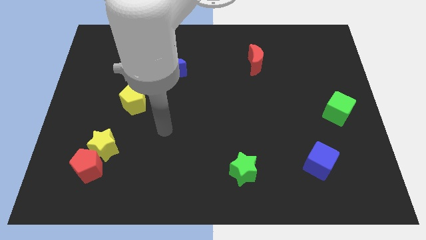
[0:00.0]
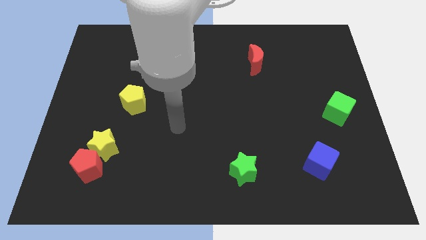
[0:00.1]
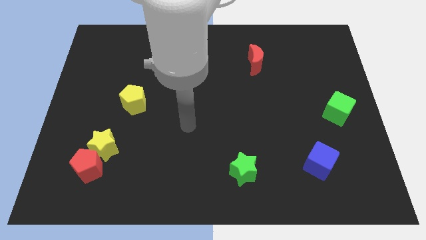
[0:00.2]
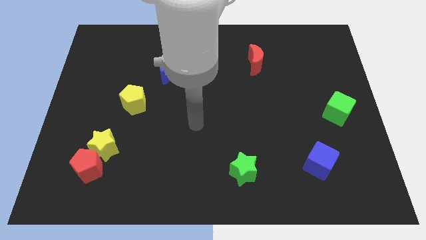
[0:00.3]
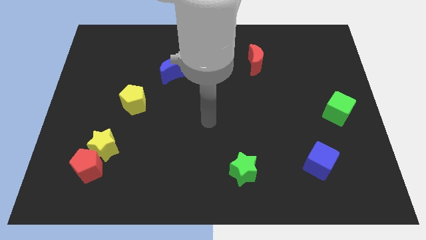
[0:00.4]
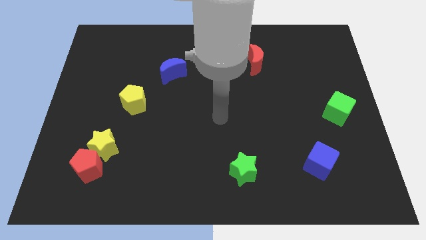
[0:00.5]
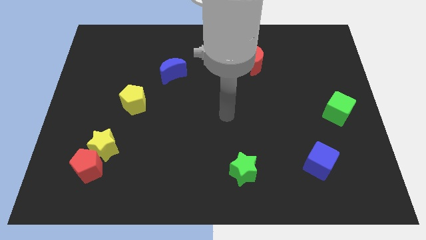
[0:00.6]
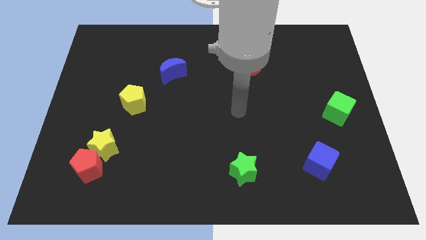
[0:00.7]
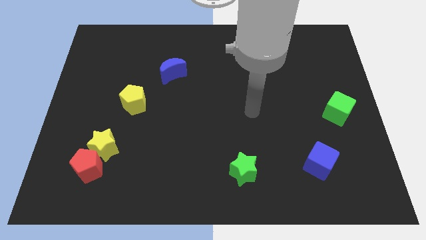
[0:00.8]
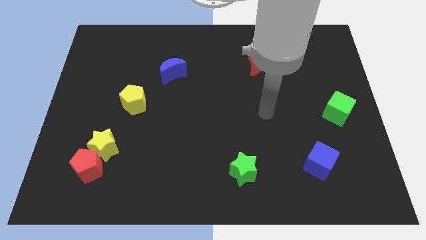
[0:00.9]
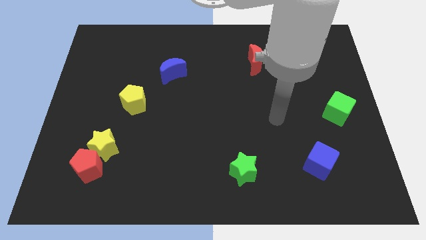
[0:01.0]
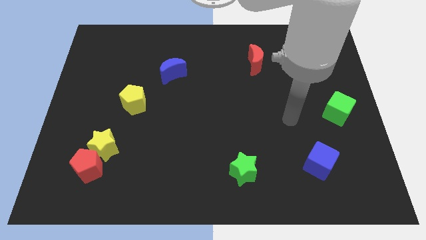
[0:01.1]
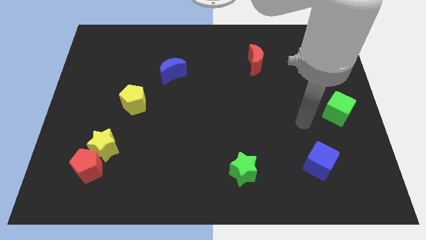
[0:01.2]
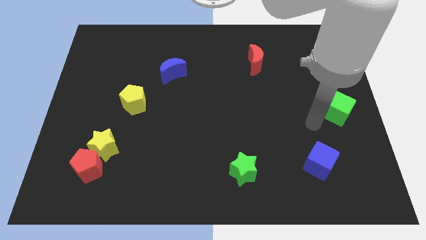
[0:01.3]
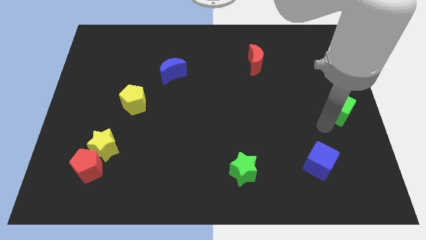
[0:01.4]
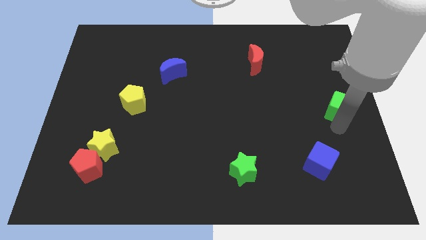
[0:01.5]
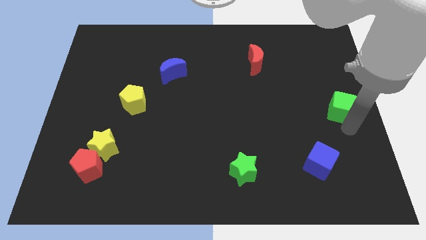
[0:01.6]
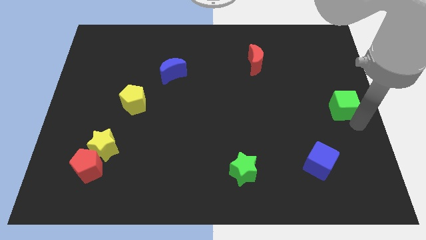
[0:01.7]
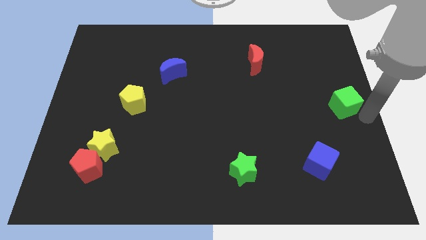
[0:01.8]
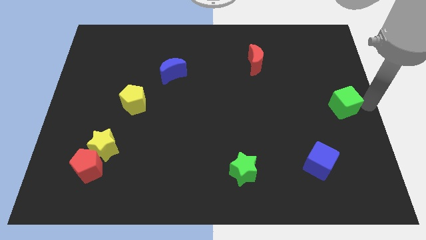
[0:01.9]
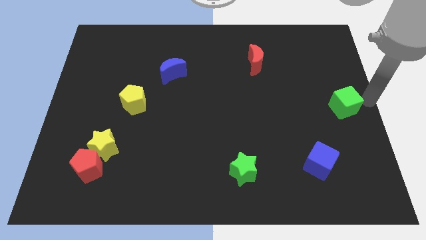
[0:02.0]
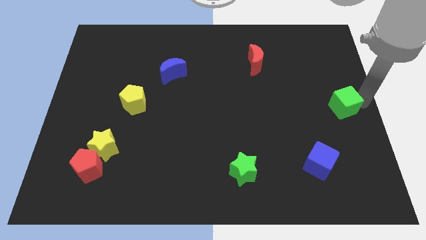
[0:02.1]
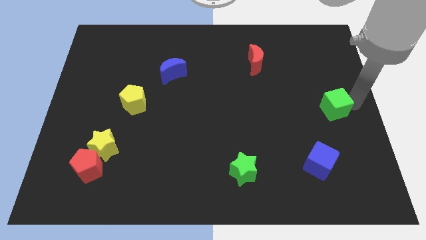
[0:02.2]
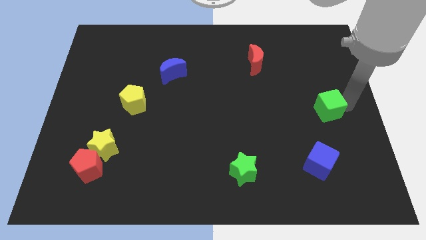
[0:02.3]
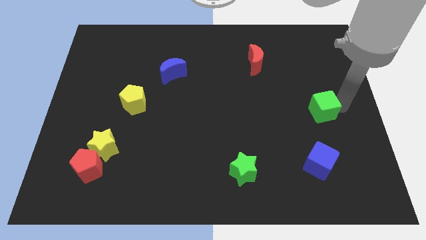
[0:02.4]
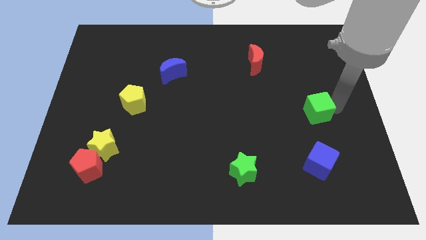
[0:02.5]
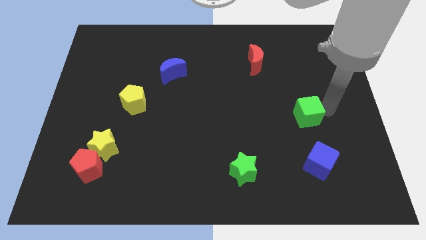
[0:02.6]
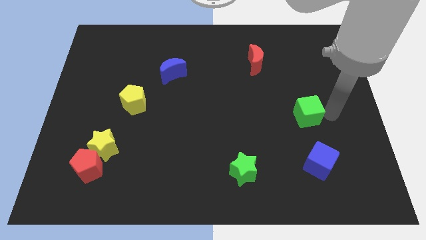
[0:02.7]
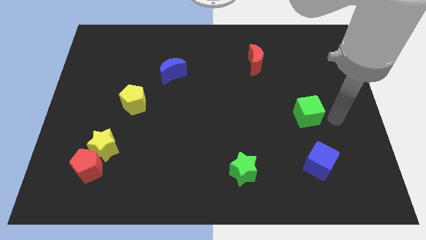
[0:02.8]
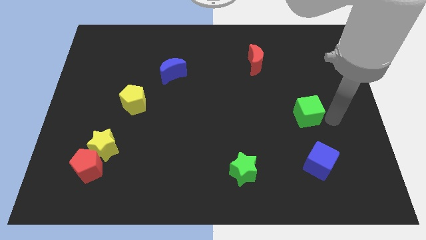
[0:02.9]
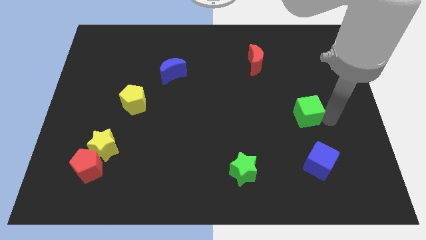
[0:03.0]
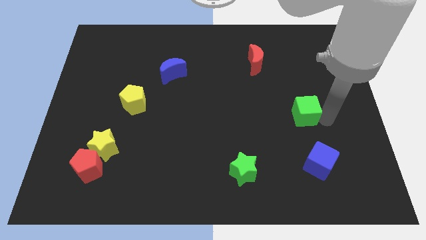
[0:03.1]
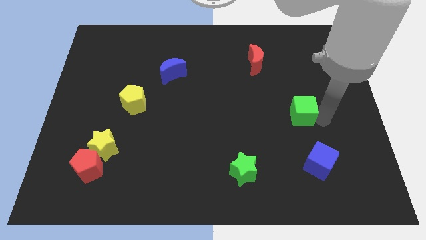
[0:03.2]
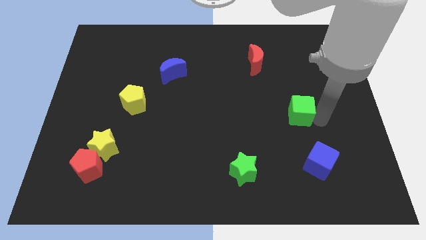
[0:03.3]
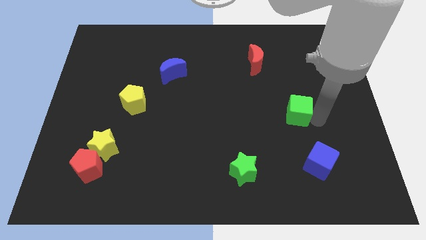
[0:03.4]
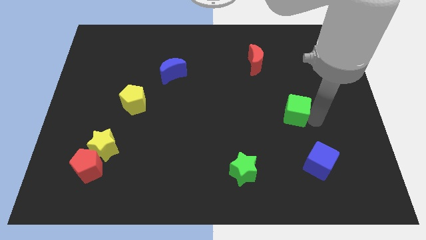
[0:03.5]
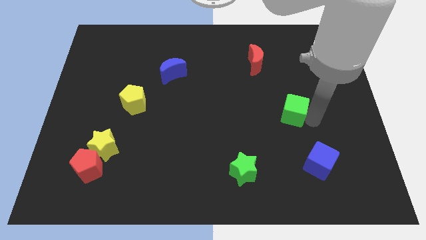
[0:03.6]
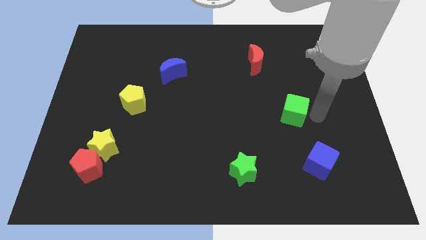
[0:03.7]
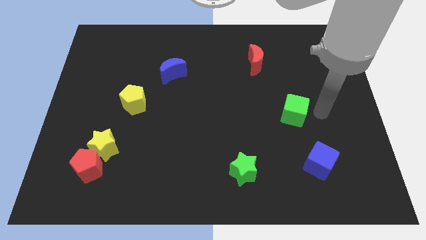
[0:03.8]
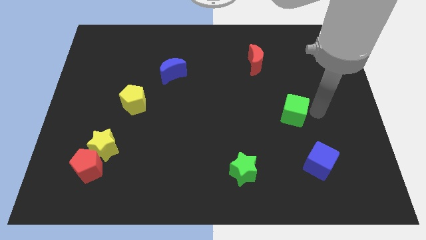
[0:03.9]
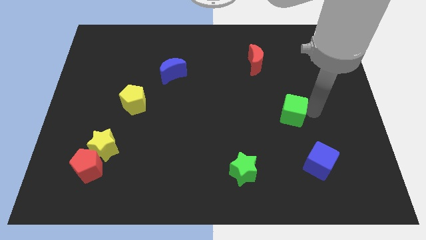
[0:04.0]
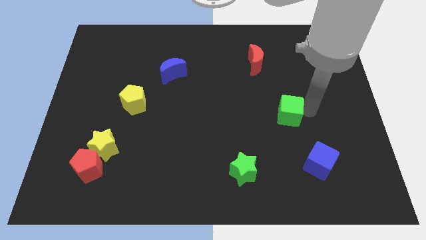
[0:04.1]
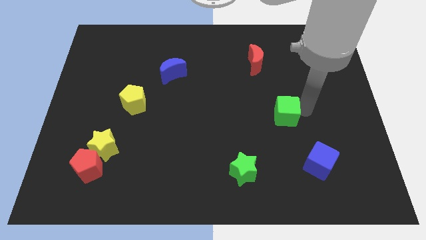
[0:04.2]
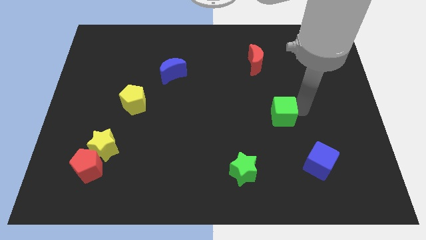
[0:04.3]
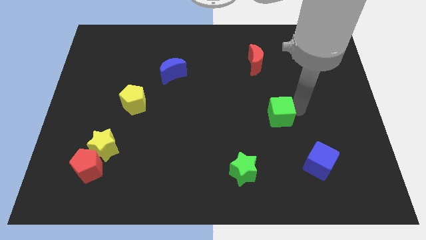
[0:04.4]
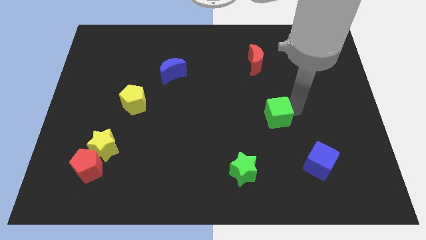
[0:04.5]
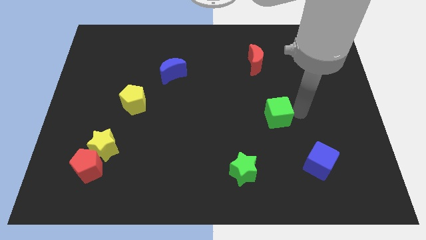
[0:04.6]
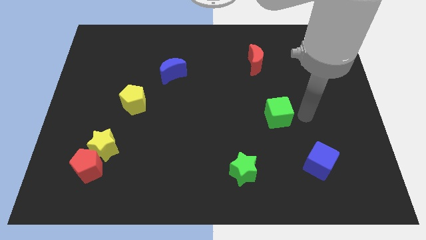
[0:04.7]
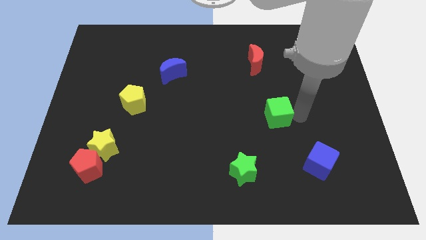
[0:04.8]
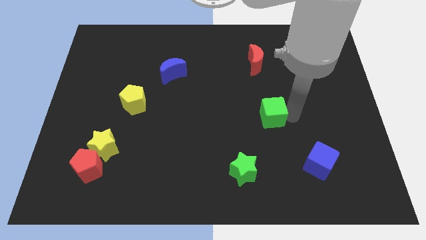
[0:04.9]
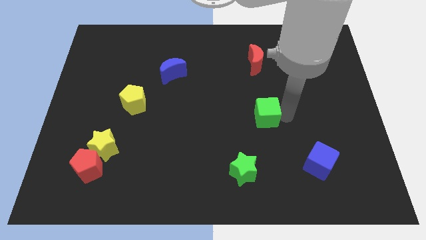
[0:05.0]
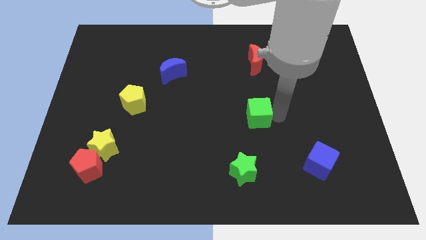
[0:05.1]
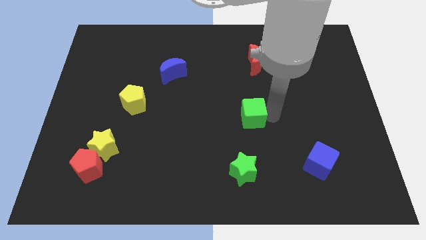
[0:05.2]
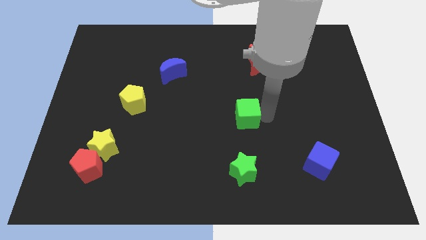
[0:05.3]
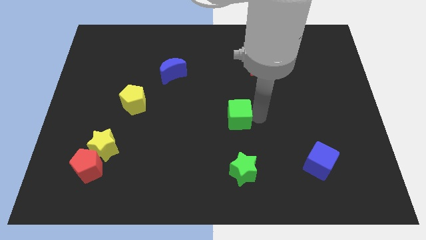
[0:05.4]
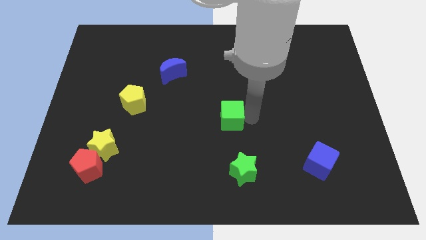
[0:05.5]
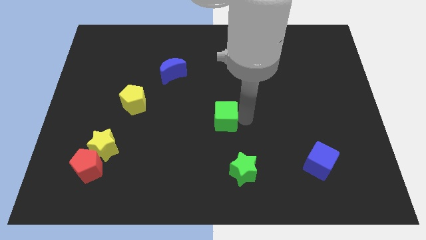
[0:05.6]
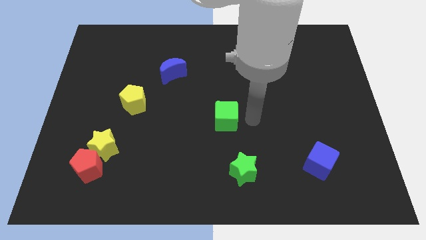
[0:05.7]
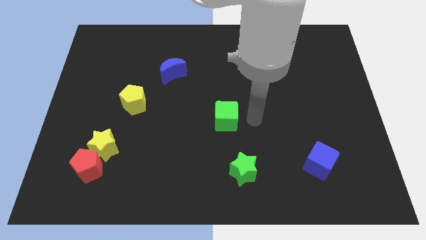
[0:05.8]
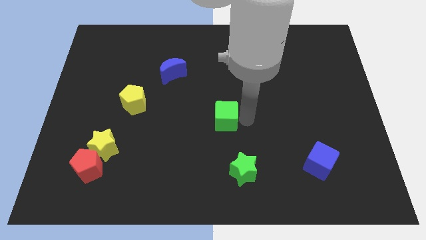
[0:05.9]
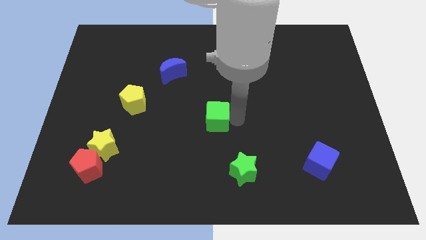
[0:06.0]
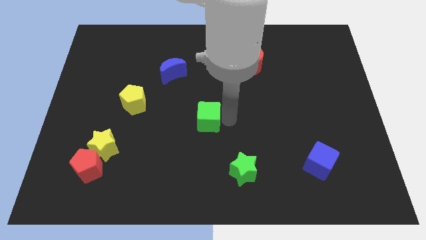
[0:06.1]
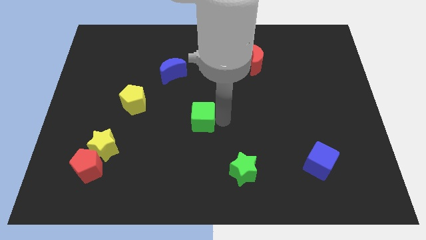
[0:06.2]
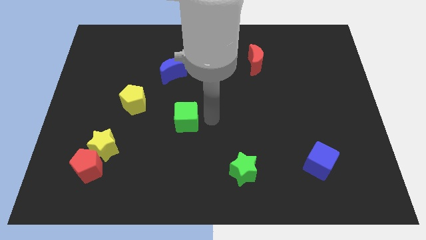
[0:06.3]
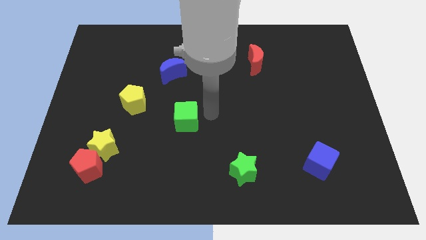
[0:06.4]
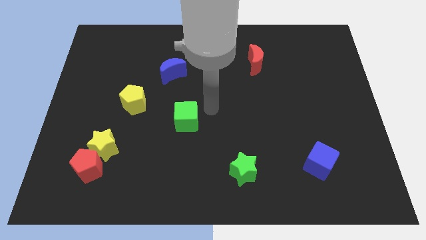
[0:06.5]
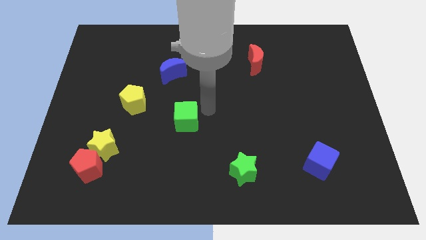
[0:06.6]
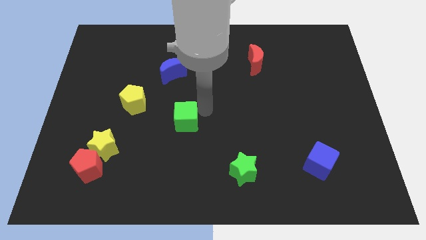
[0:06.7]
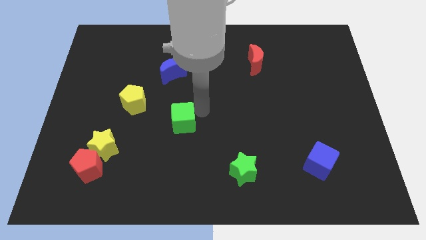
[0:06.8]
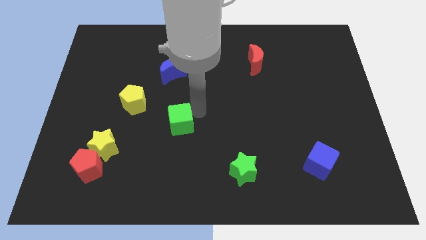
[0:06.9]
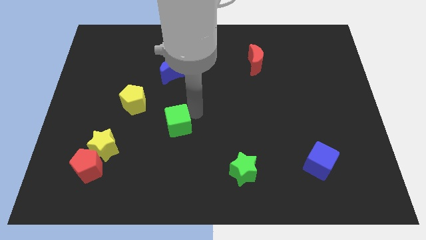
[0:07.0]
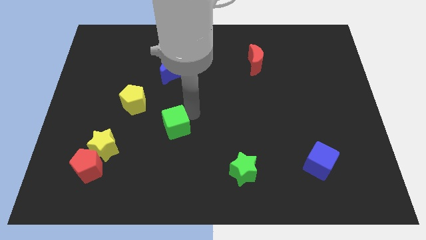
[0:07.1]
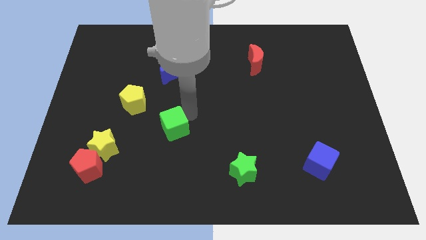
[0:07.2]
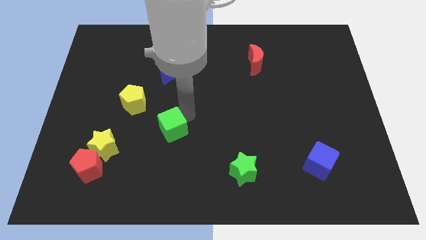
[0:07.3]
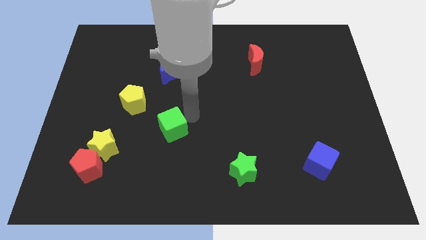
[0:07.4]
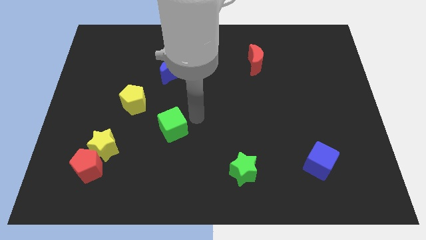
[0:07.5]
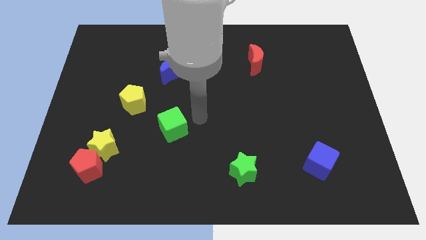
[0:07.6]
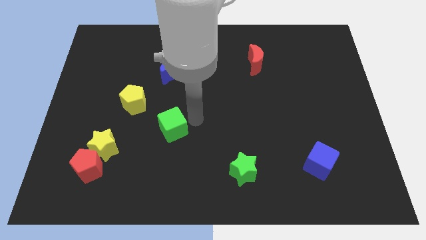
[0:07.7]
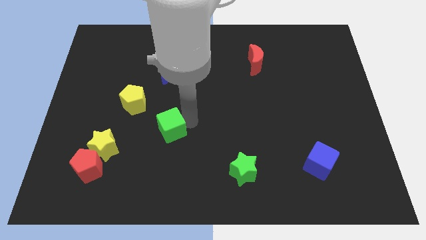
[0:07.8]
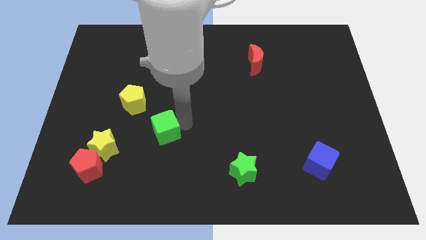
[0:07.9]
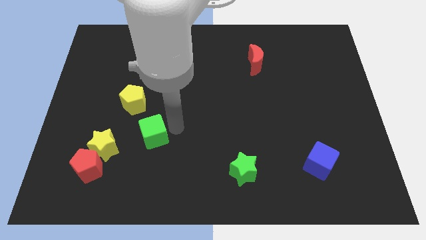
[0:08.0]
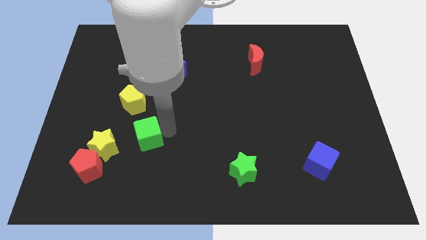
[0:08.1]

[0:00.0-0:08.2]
put the green cube to the bottom of the yellow pentagon
